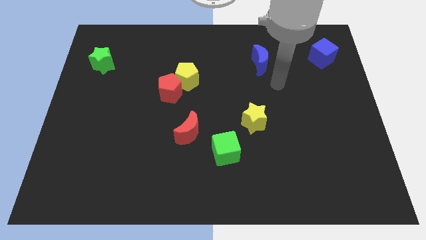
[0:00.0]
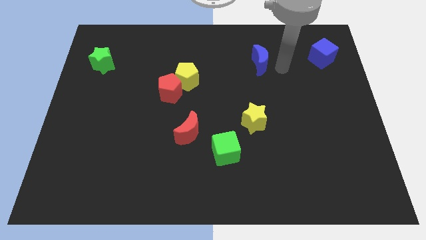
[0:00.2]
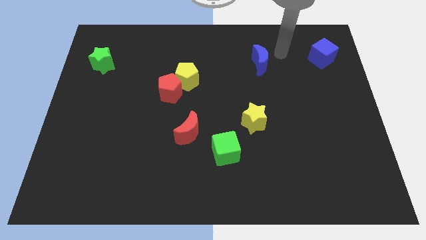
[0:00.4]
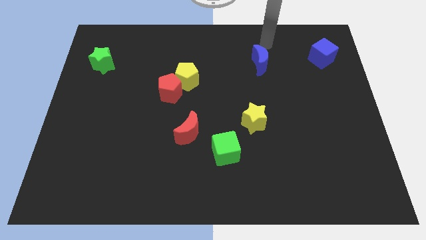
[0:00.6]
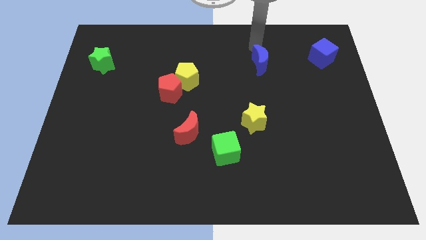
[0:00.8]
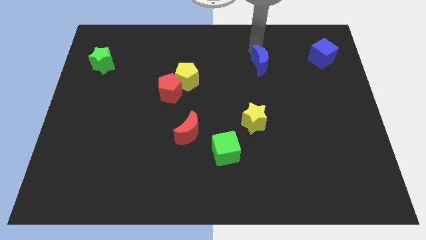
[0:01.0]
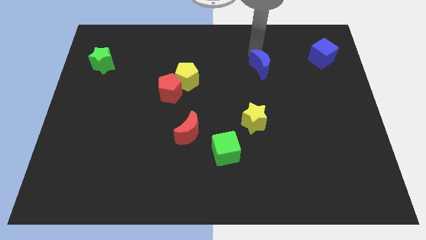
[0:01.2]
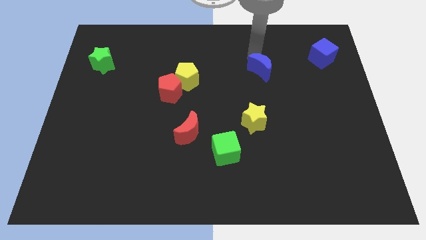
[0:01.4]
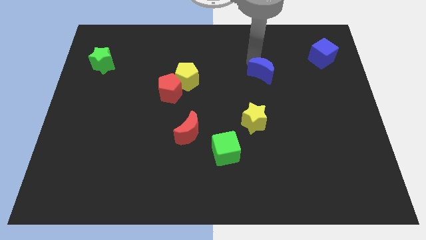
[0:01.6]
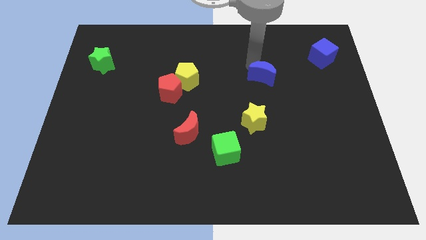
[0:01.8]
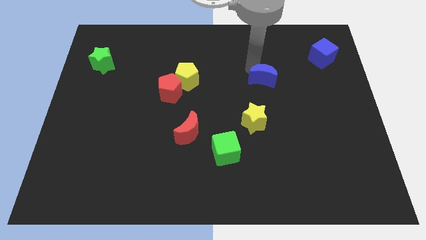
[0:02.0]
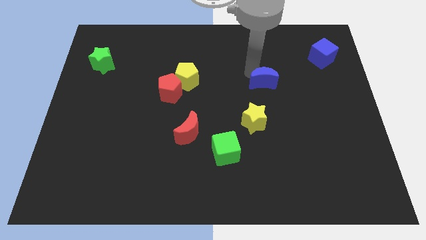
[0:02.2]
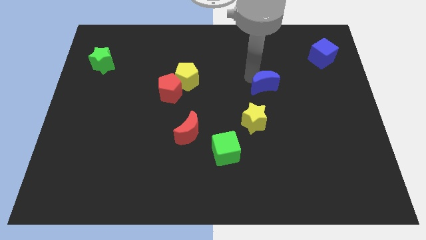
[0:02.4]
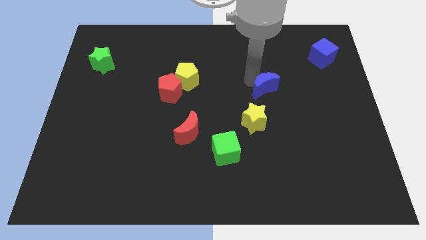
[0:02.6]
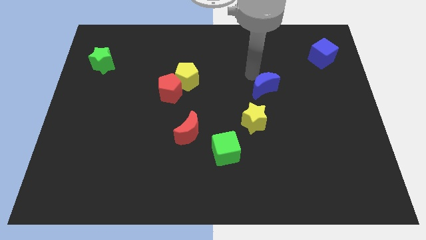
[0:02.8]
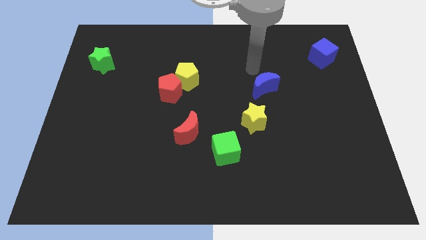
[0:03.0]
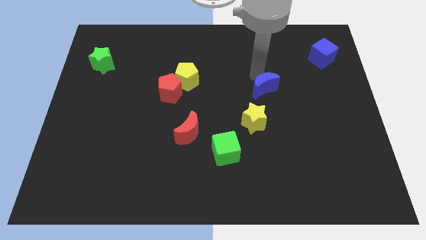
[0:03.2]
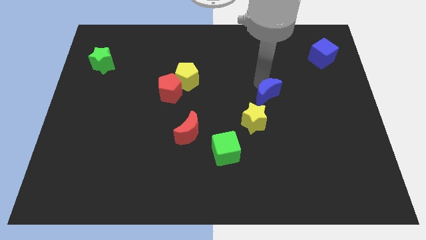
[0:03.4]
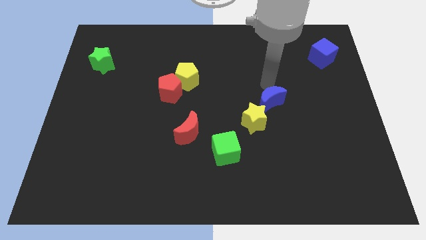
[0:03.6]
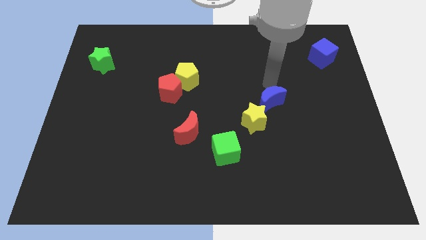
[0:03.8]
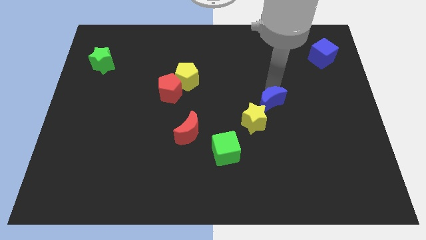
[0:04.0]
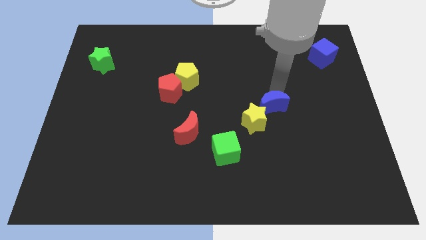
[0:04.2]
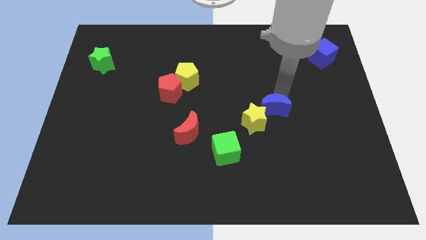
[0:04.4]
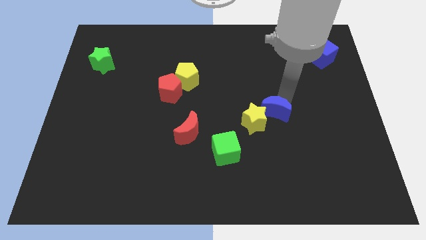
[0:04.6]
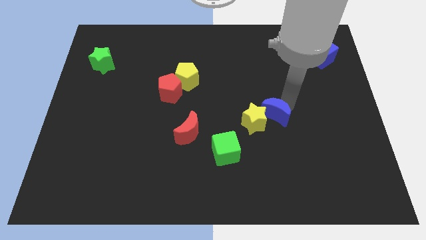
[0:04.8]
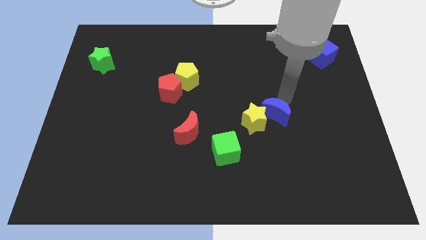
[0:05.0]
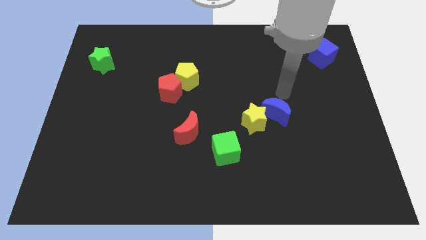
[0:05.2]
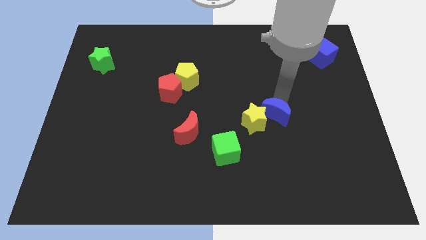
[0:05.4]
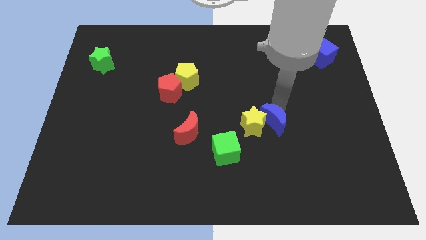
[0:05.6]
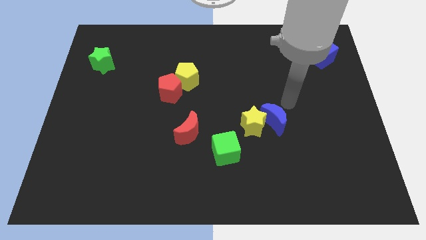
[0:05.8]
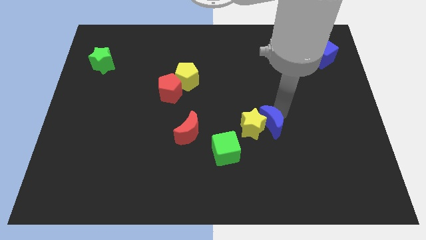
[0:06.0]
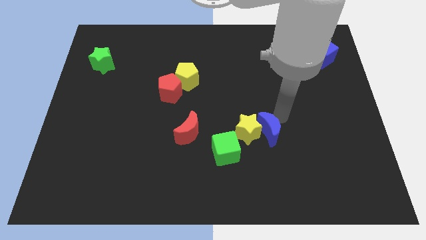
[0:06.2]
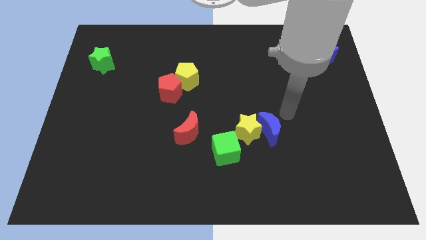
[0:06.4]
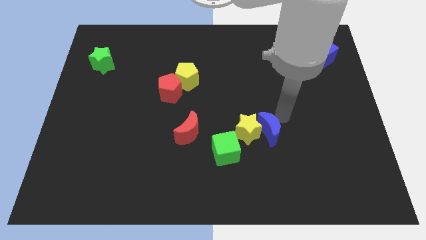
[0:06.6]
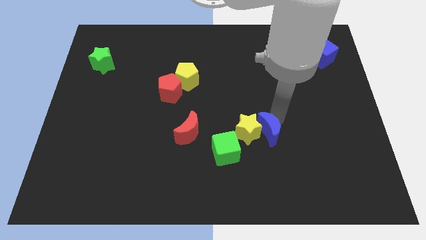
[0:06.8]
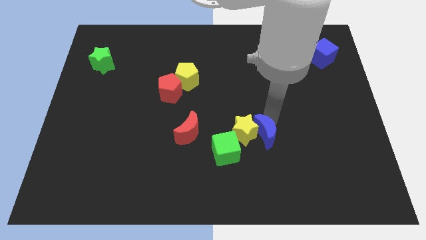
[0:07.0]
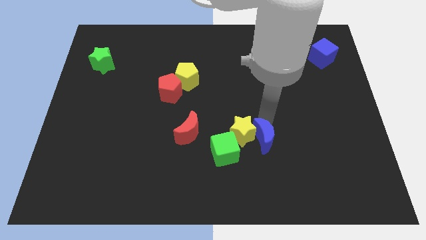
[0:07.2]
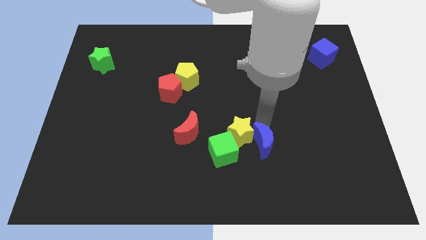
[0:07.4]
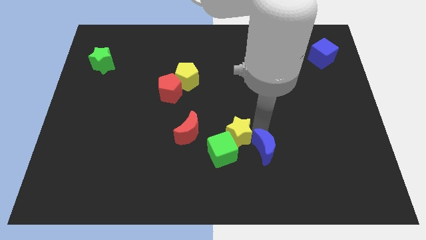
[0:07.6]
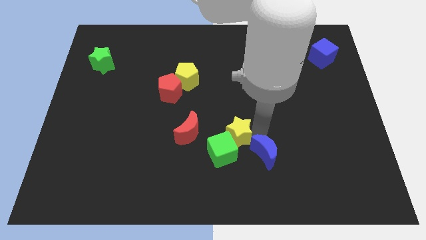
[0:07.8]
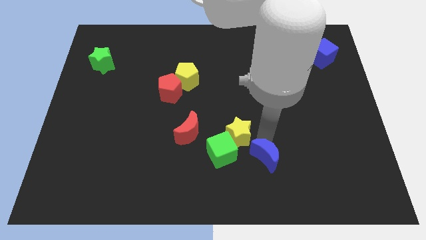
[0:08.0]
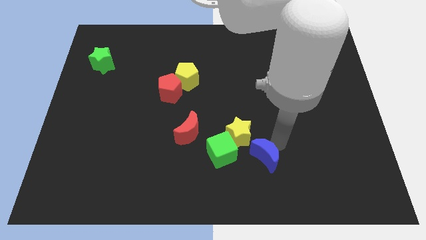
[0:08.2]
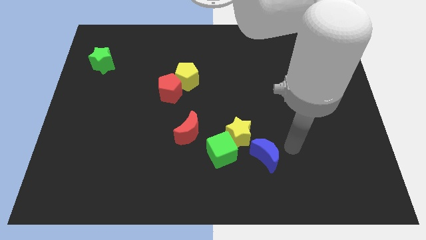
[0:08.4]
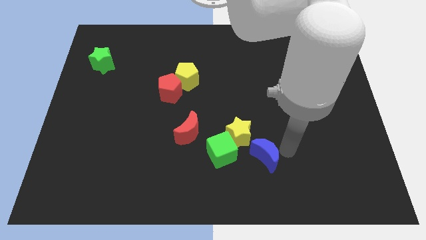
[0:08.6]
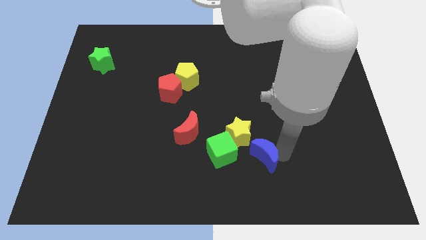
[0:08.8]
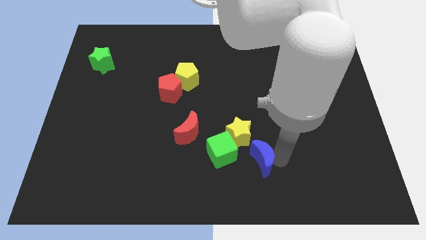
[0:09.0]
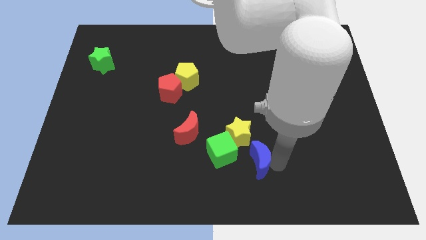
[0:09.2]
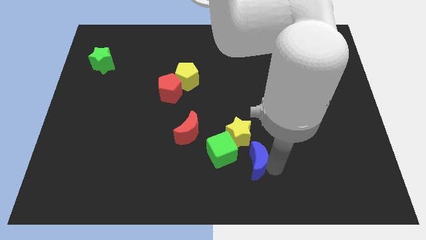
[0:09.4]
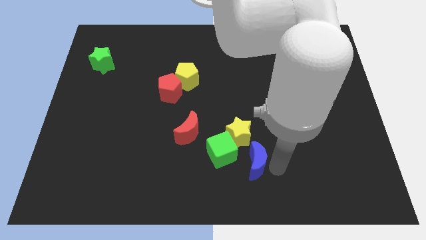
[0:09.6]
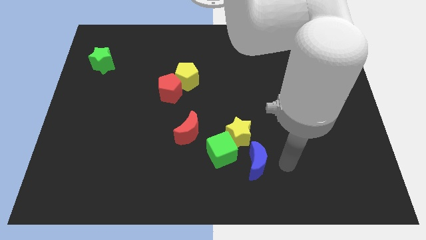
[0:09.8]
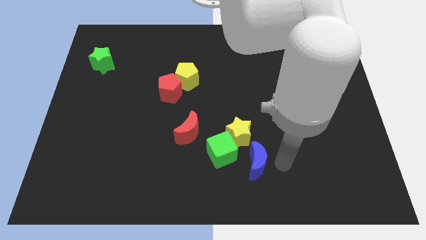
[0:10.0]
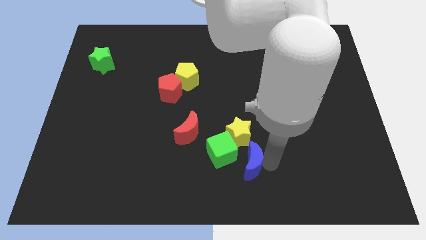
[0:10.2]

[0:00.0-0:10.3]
put the blue moon to the bottom

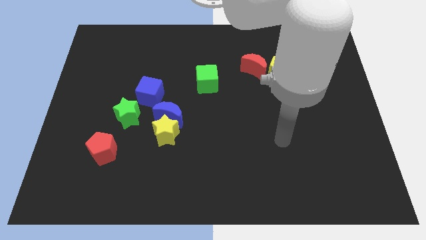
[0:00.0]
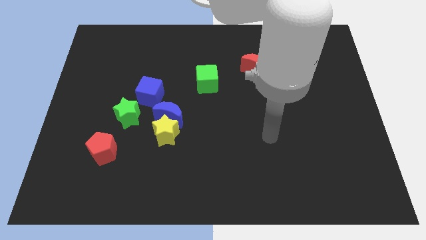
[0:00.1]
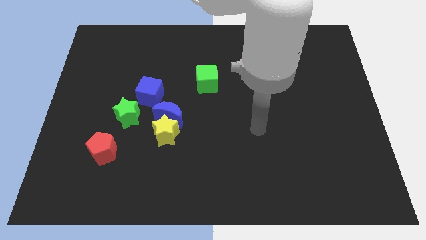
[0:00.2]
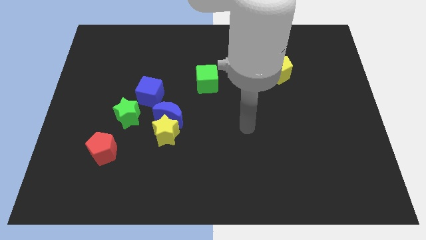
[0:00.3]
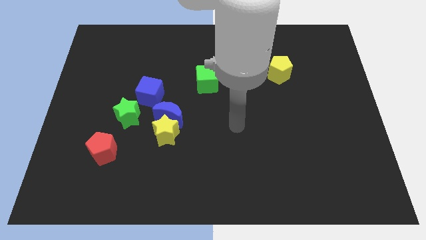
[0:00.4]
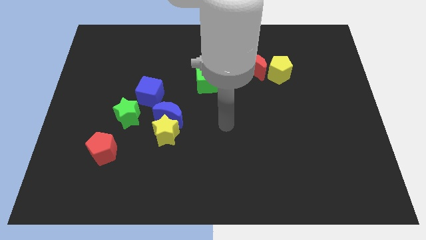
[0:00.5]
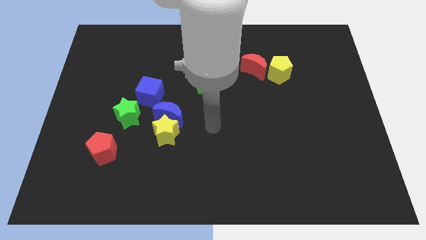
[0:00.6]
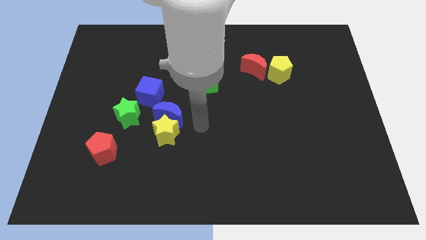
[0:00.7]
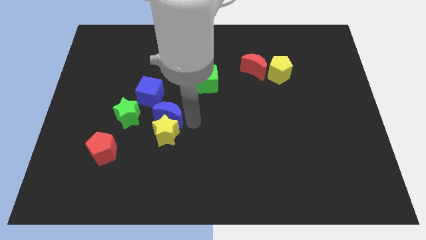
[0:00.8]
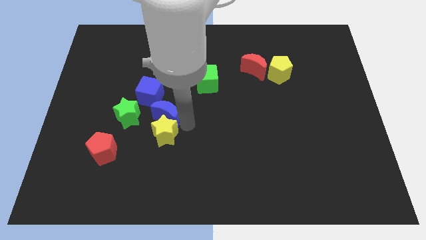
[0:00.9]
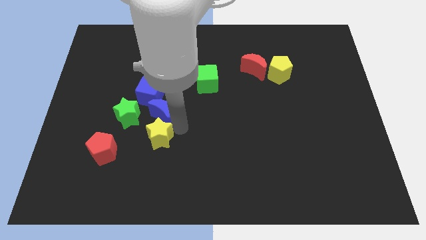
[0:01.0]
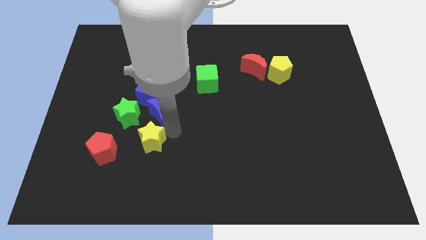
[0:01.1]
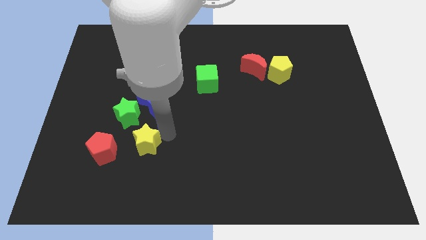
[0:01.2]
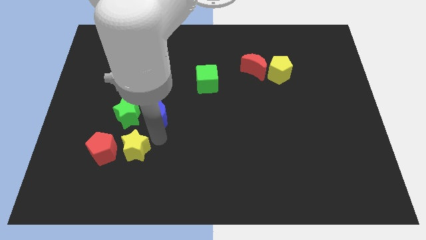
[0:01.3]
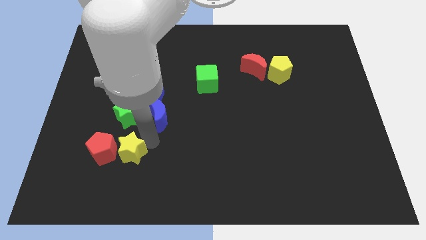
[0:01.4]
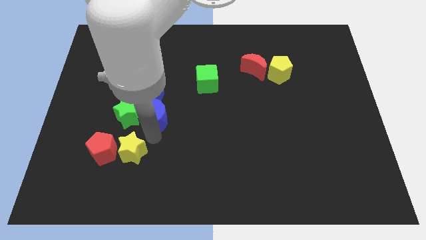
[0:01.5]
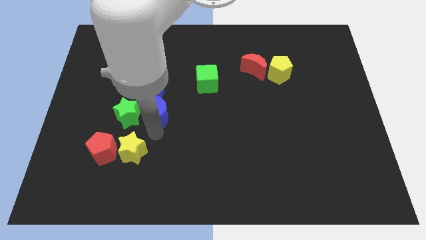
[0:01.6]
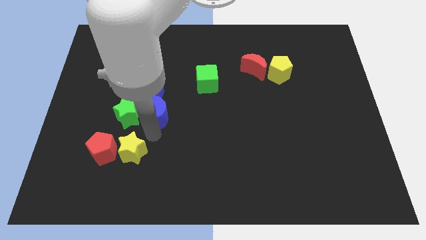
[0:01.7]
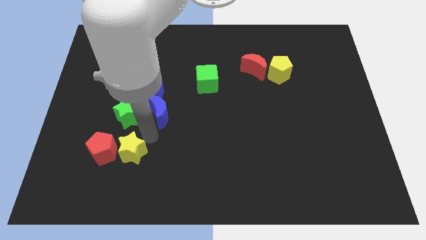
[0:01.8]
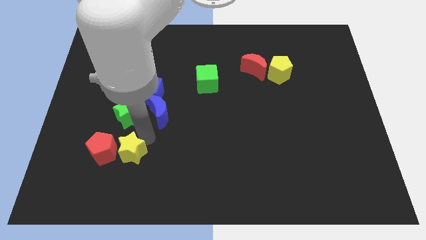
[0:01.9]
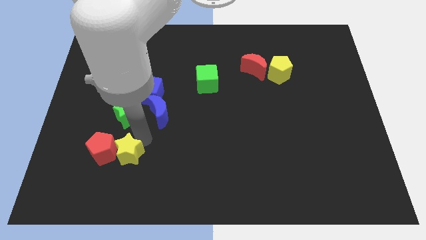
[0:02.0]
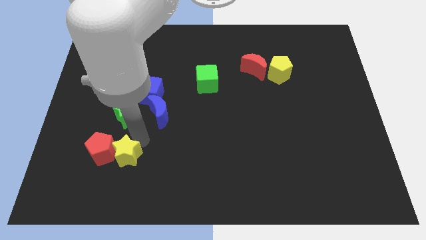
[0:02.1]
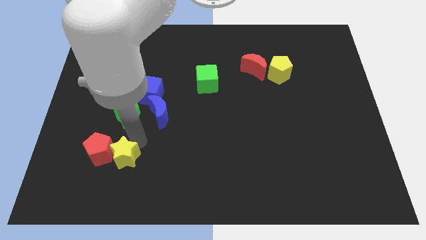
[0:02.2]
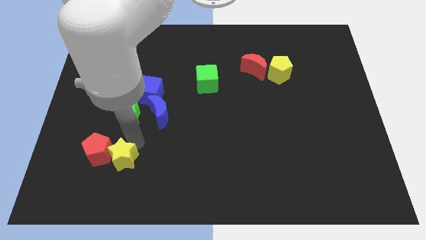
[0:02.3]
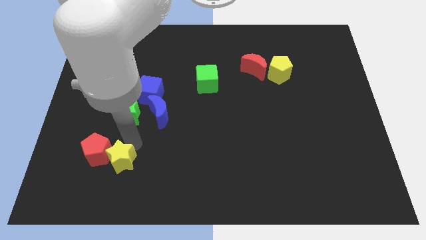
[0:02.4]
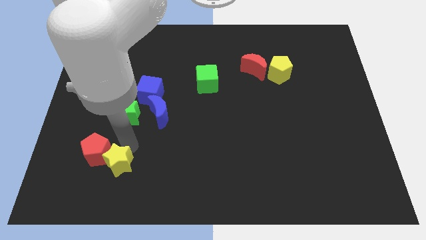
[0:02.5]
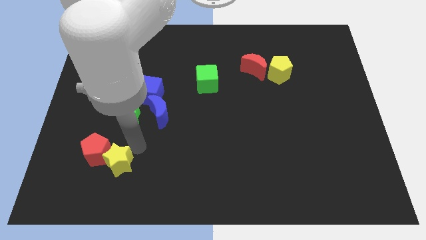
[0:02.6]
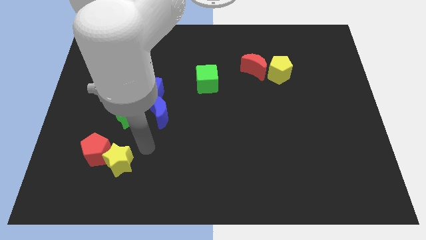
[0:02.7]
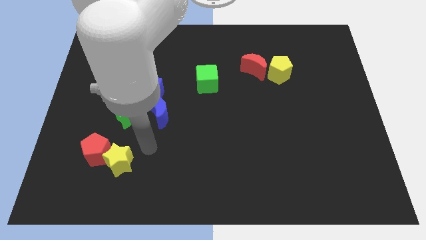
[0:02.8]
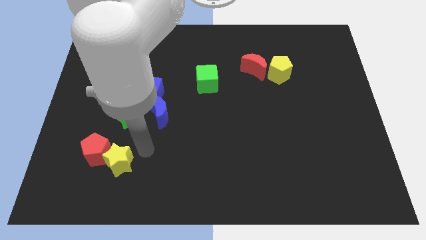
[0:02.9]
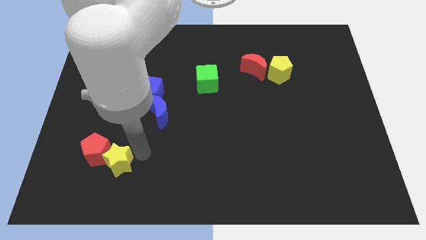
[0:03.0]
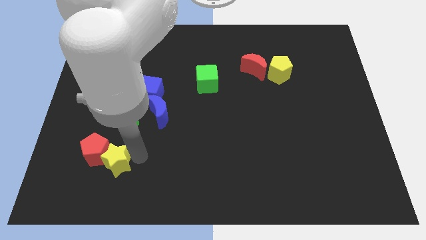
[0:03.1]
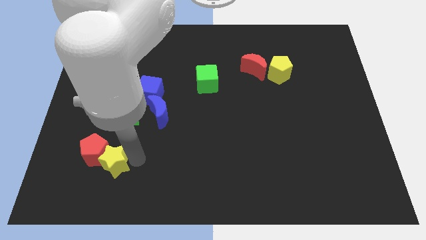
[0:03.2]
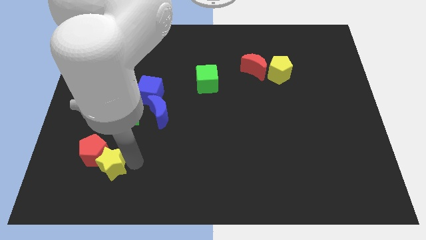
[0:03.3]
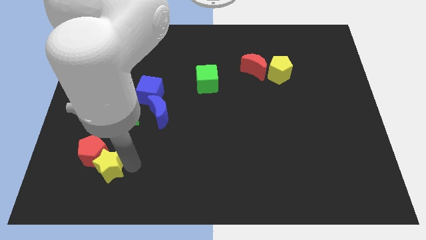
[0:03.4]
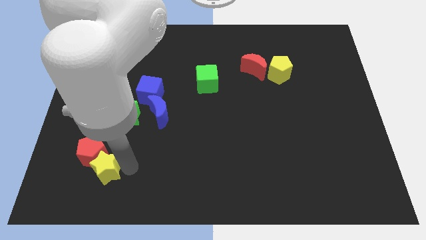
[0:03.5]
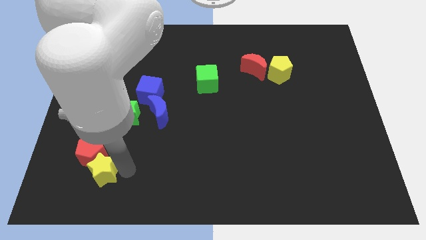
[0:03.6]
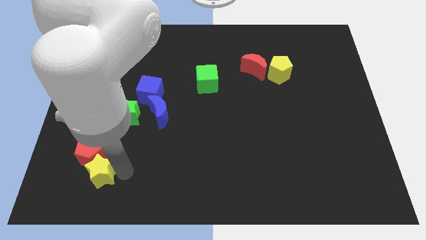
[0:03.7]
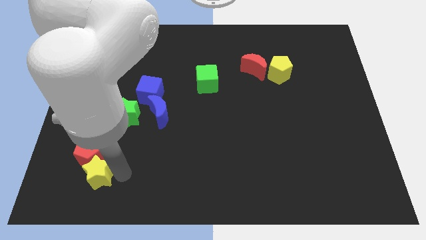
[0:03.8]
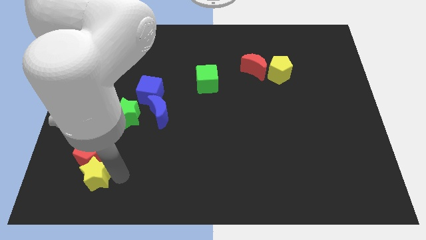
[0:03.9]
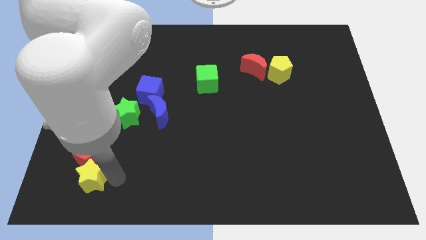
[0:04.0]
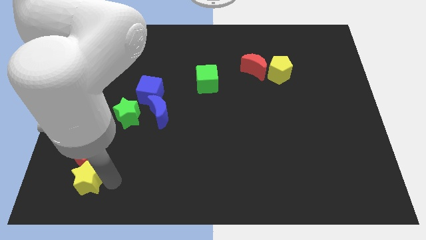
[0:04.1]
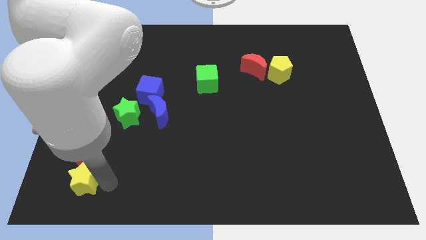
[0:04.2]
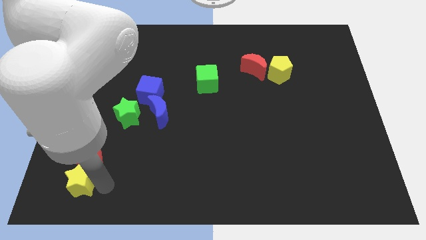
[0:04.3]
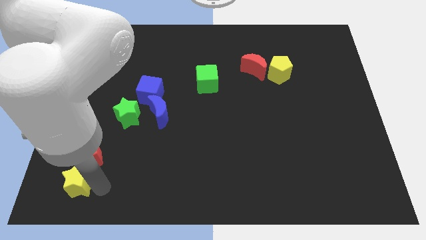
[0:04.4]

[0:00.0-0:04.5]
push the yellow star to the bottom left
